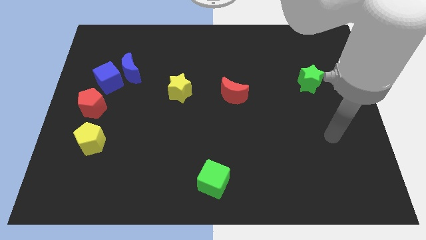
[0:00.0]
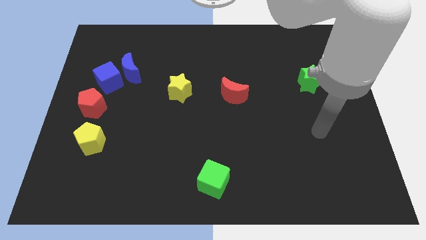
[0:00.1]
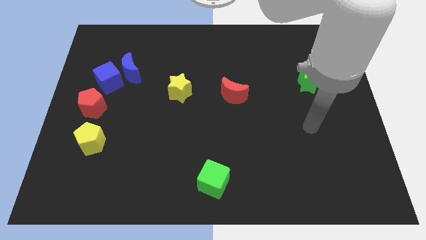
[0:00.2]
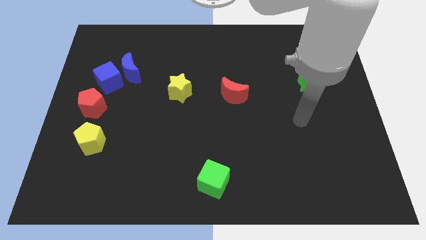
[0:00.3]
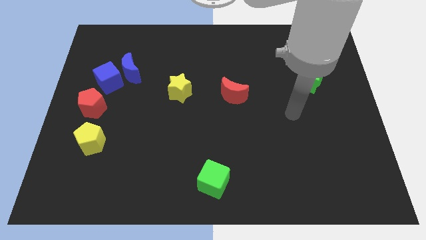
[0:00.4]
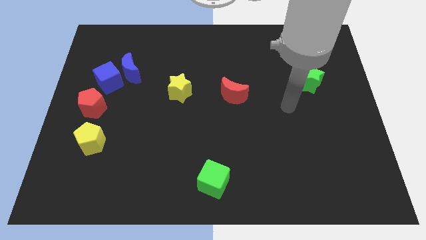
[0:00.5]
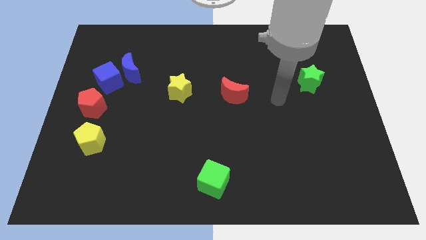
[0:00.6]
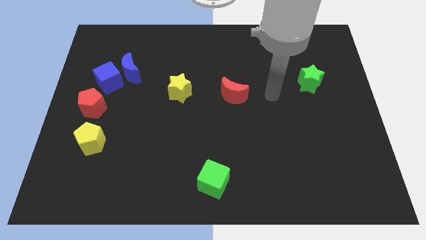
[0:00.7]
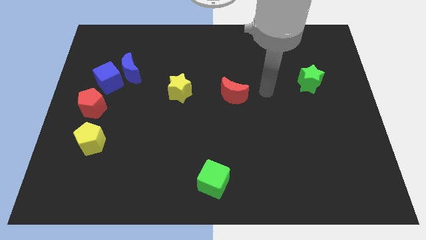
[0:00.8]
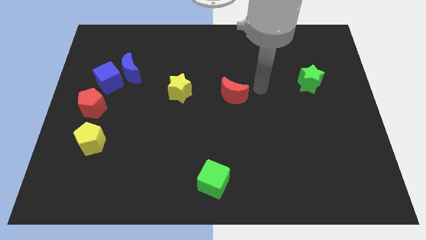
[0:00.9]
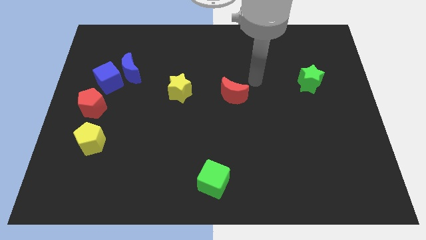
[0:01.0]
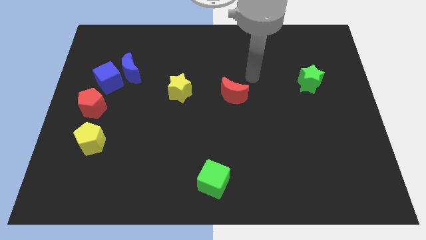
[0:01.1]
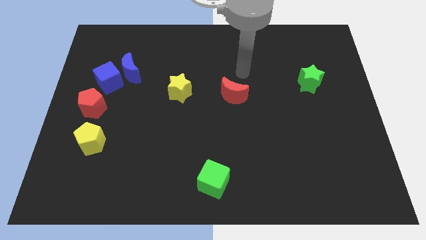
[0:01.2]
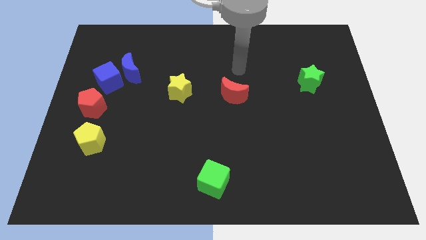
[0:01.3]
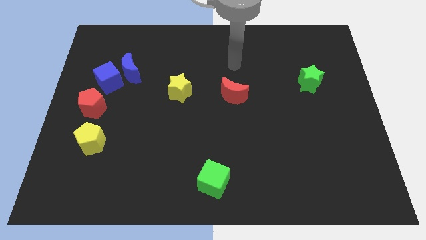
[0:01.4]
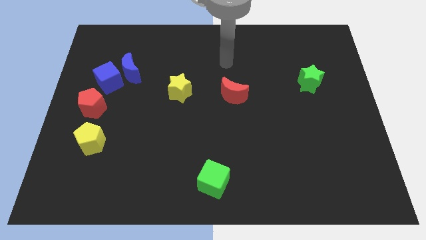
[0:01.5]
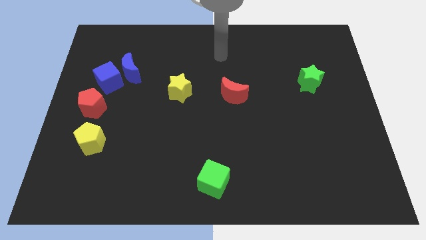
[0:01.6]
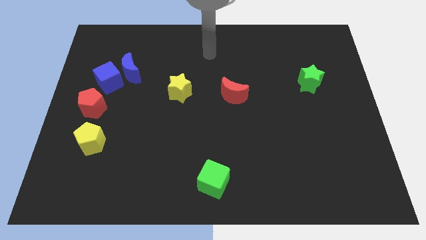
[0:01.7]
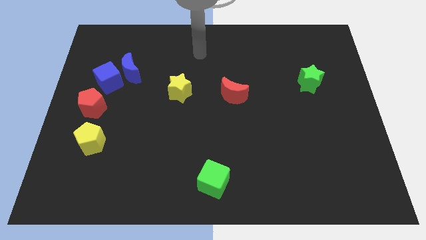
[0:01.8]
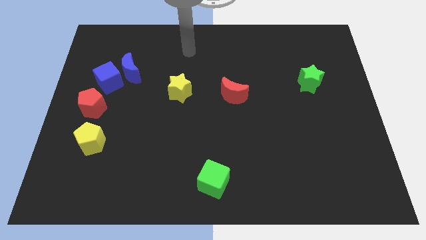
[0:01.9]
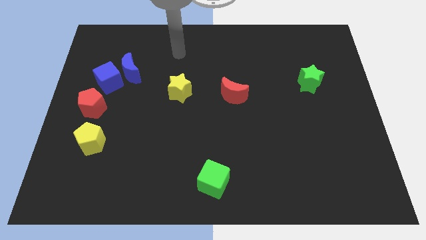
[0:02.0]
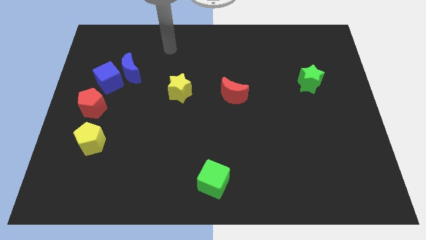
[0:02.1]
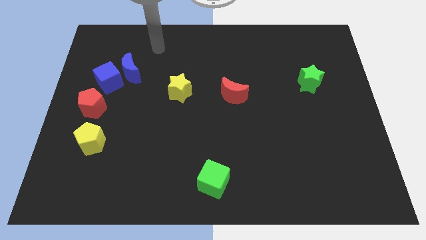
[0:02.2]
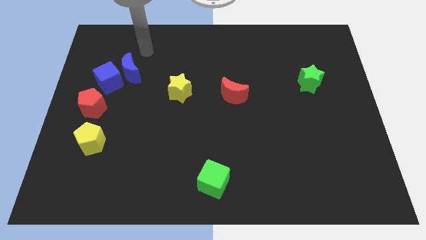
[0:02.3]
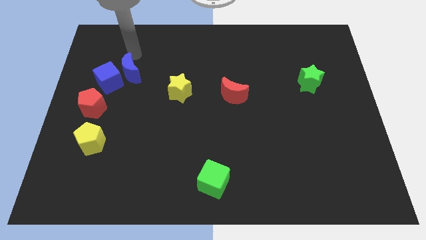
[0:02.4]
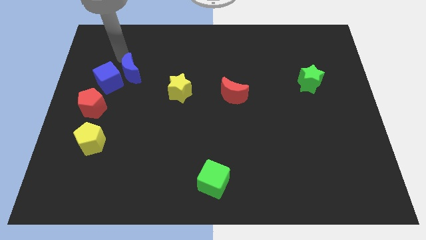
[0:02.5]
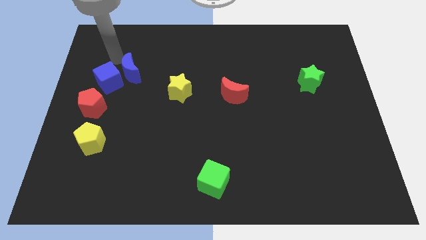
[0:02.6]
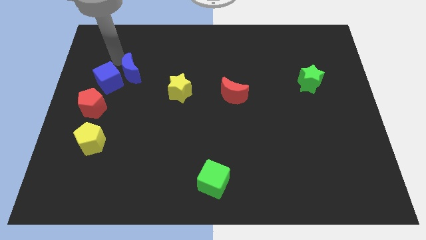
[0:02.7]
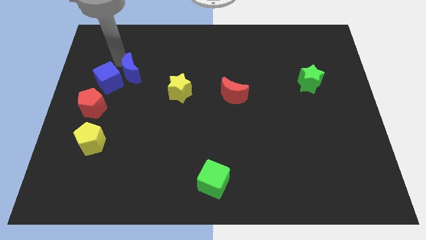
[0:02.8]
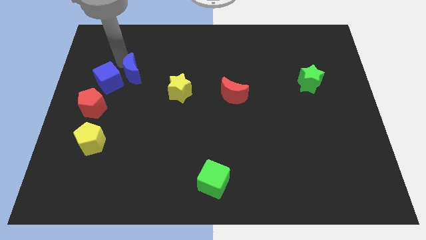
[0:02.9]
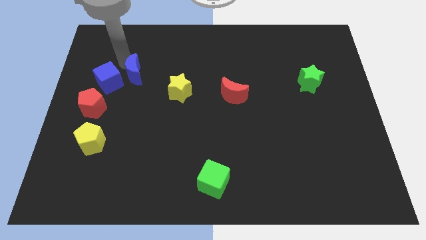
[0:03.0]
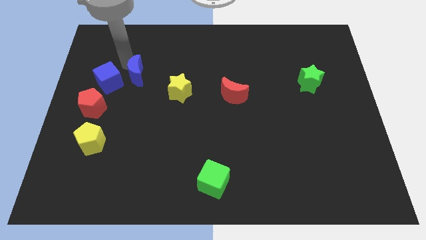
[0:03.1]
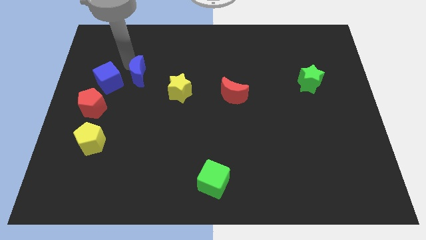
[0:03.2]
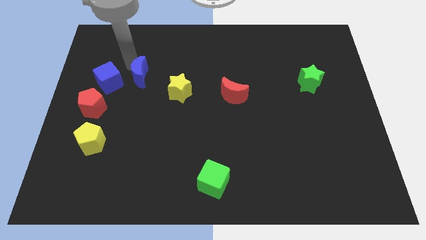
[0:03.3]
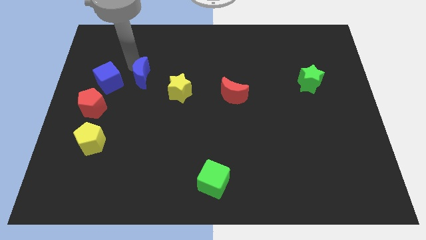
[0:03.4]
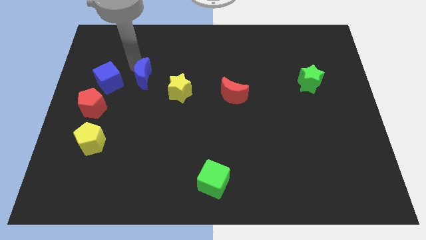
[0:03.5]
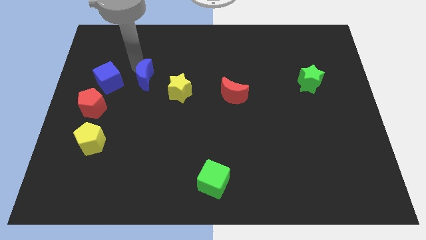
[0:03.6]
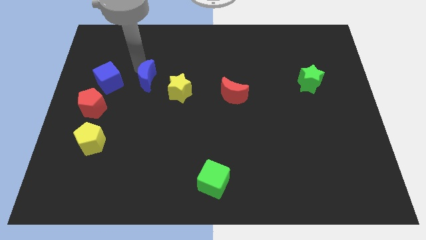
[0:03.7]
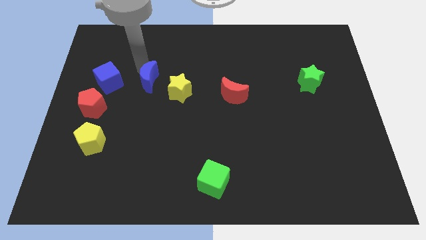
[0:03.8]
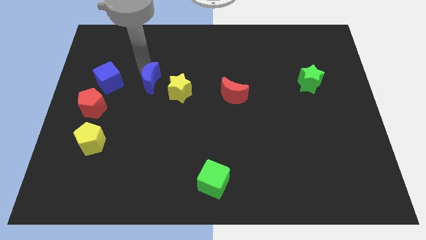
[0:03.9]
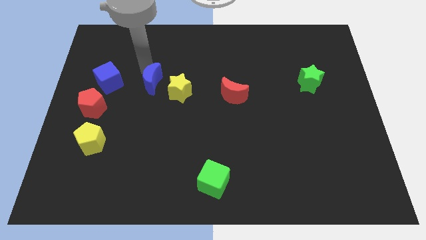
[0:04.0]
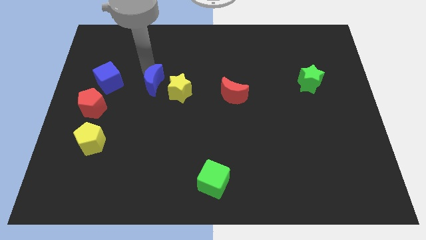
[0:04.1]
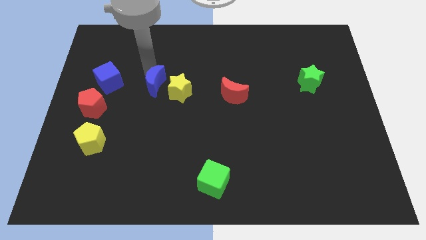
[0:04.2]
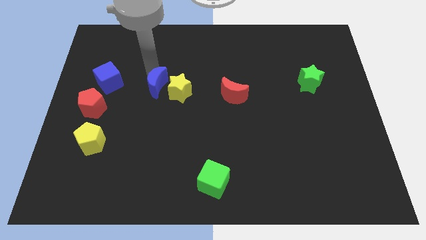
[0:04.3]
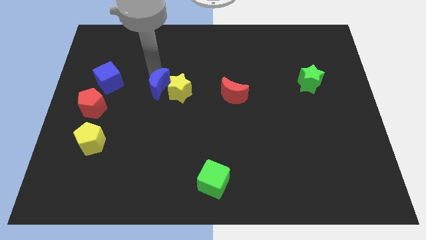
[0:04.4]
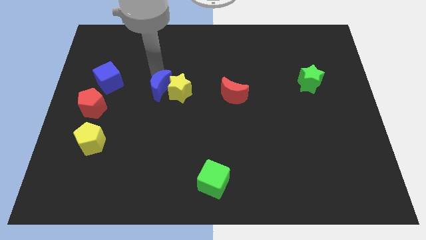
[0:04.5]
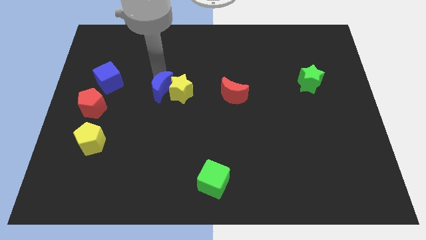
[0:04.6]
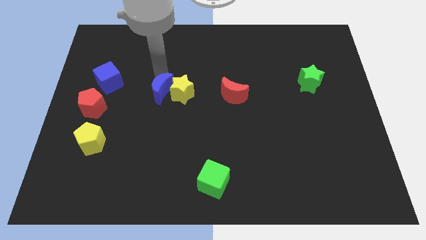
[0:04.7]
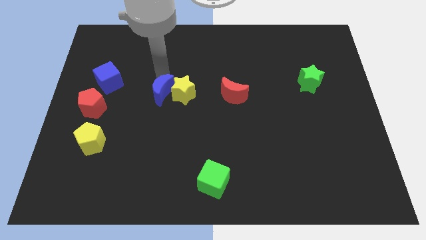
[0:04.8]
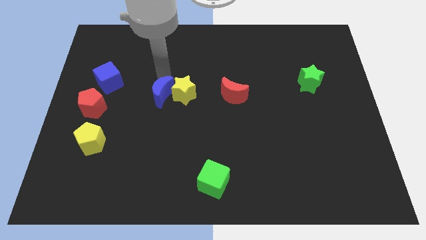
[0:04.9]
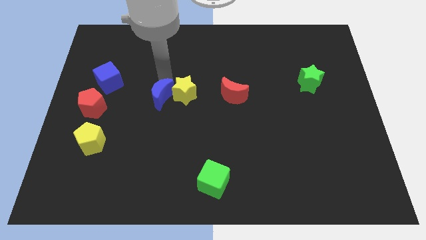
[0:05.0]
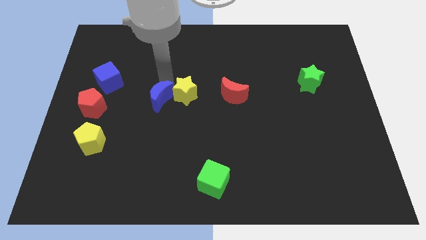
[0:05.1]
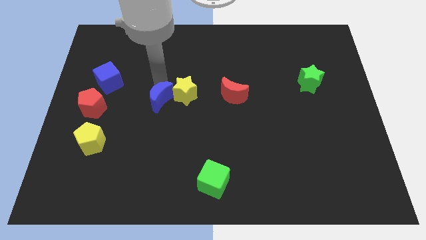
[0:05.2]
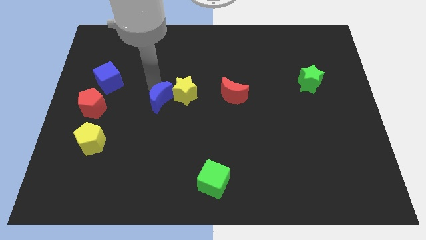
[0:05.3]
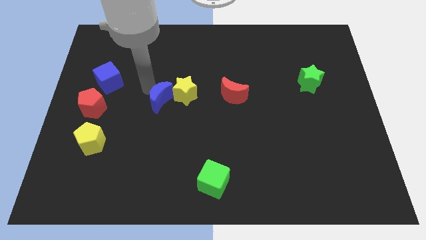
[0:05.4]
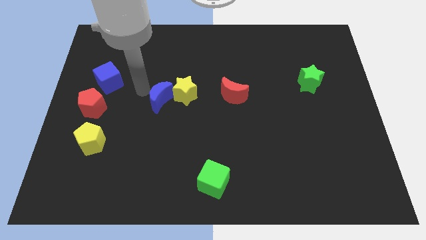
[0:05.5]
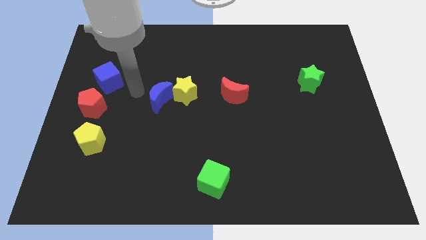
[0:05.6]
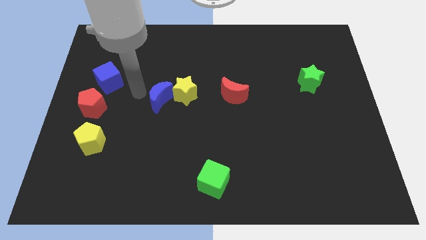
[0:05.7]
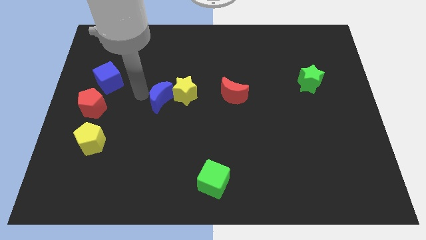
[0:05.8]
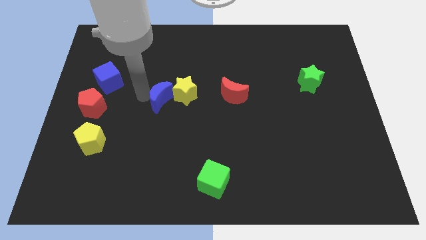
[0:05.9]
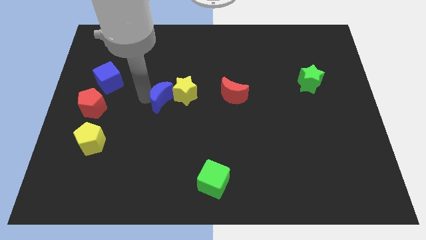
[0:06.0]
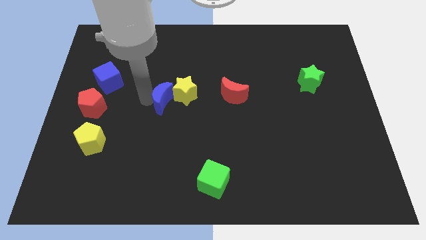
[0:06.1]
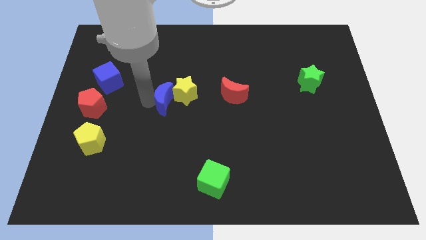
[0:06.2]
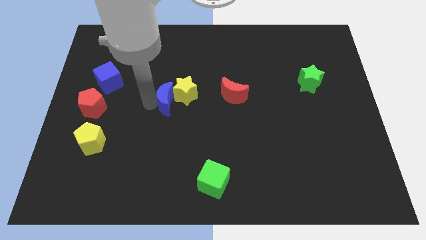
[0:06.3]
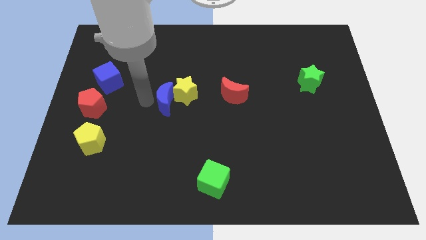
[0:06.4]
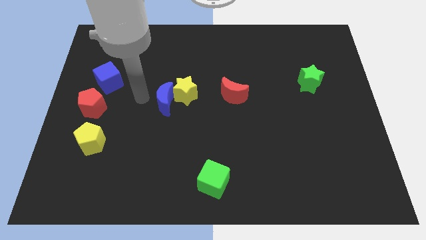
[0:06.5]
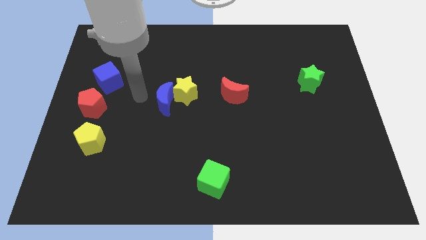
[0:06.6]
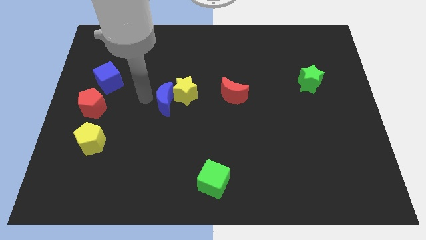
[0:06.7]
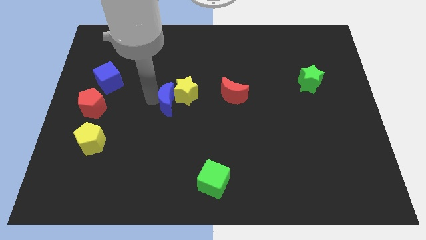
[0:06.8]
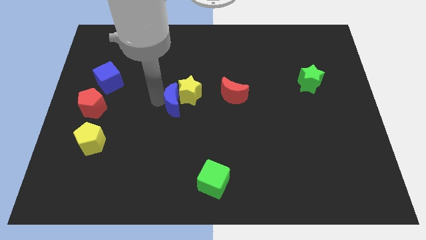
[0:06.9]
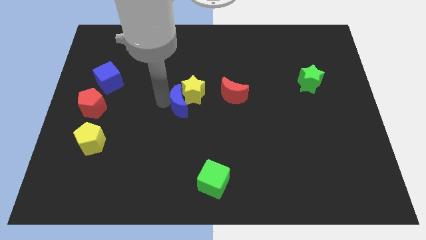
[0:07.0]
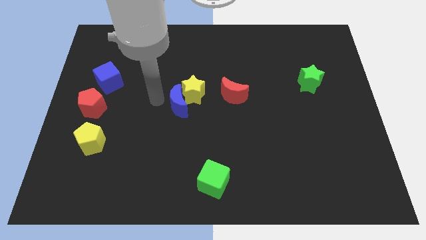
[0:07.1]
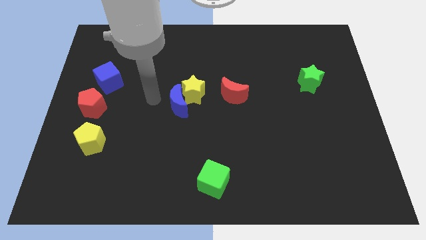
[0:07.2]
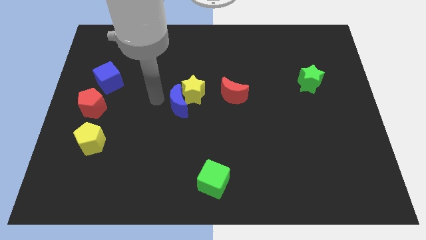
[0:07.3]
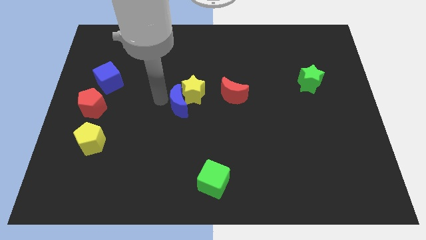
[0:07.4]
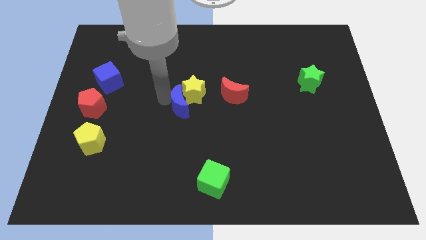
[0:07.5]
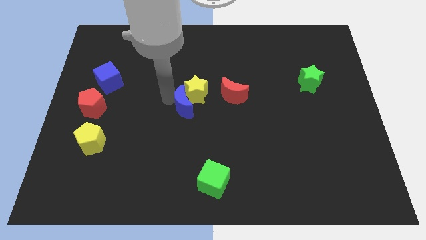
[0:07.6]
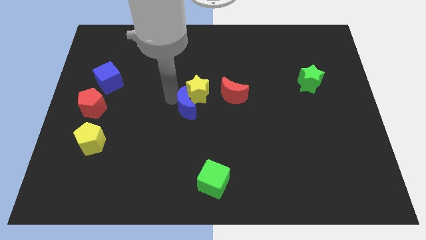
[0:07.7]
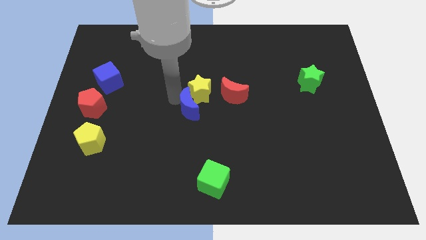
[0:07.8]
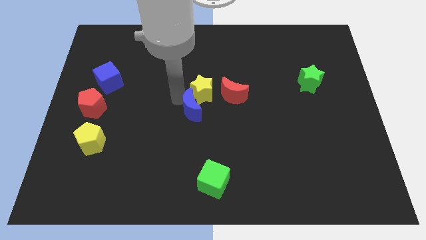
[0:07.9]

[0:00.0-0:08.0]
slide the blue moon diagonally down and to the left of the red moon
